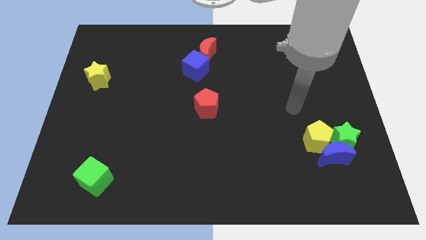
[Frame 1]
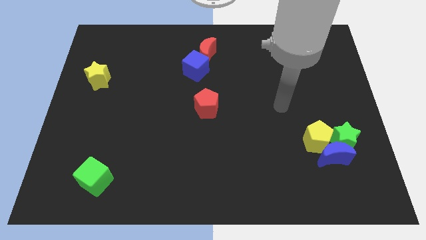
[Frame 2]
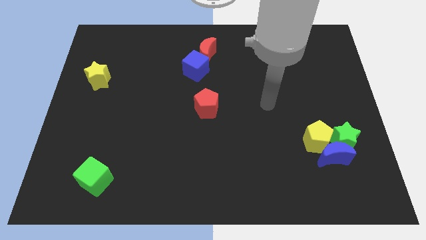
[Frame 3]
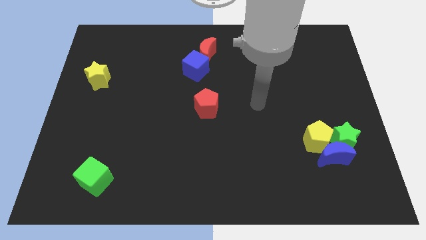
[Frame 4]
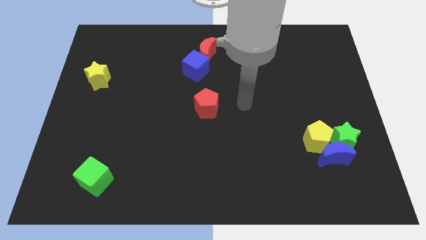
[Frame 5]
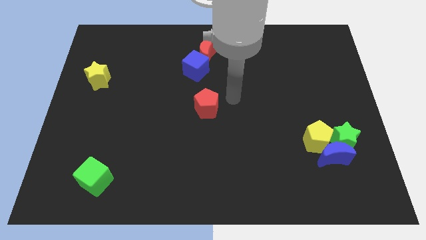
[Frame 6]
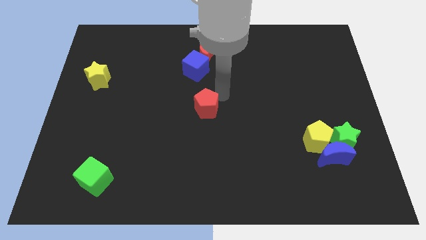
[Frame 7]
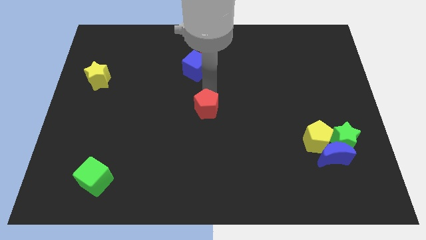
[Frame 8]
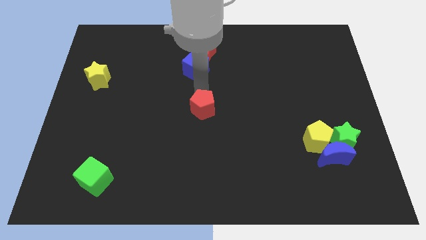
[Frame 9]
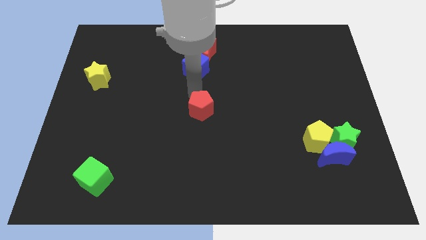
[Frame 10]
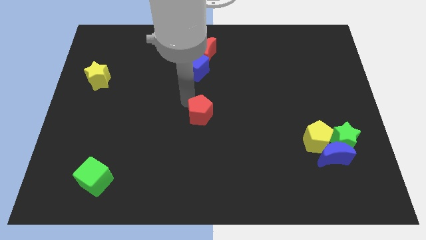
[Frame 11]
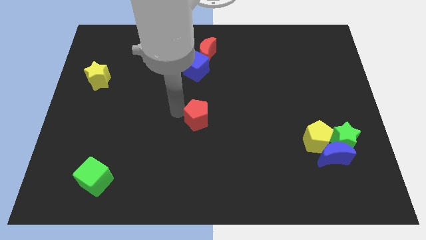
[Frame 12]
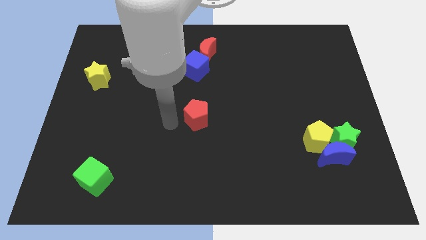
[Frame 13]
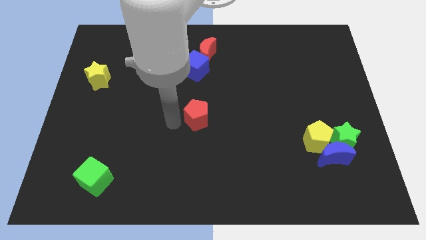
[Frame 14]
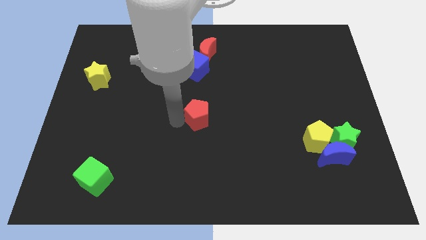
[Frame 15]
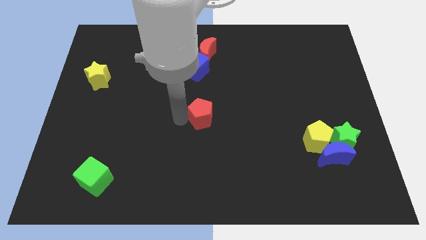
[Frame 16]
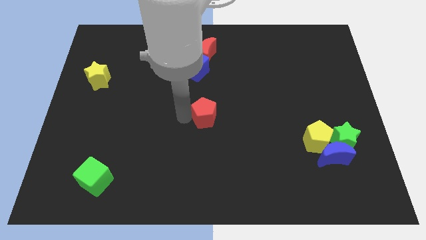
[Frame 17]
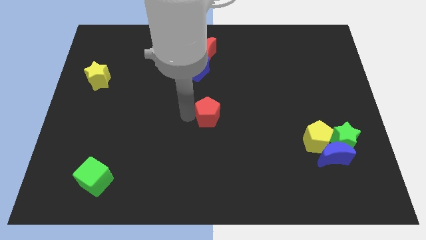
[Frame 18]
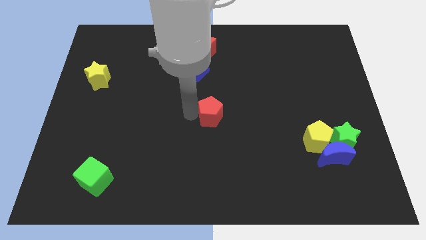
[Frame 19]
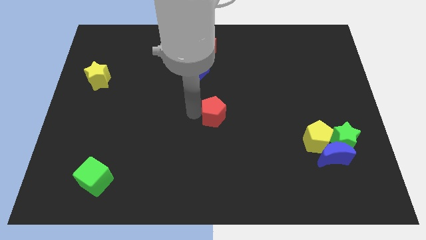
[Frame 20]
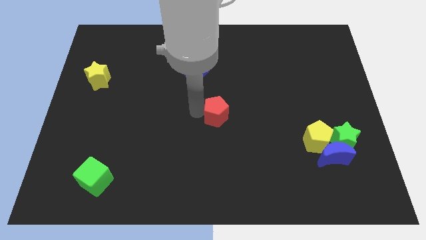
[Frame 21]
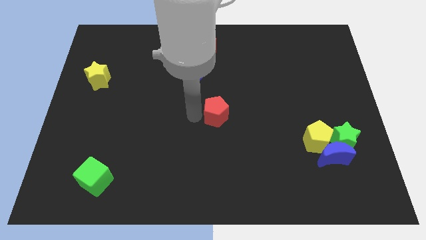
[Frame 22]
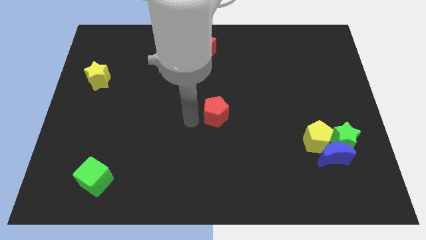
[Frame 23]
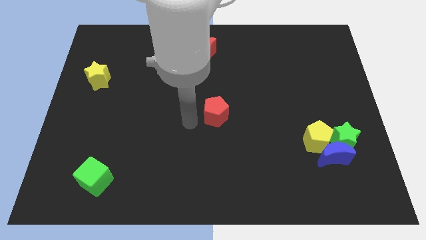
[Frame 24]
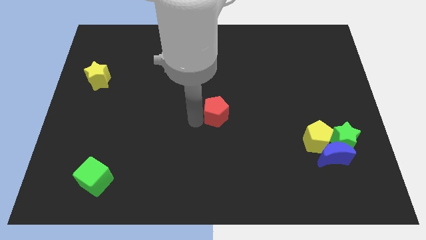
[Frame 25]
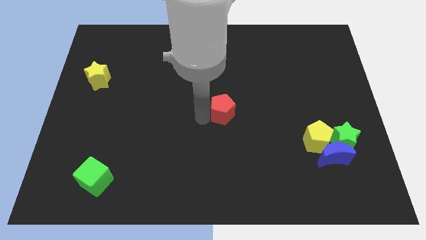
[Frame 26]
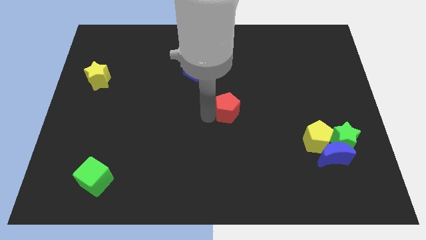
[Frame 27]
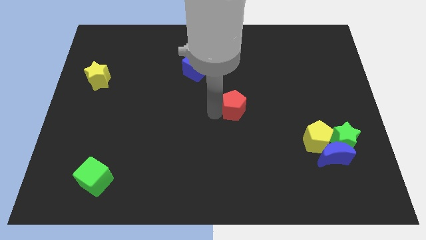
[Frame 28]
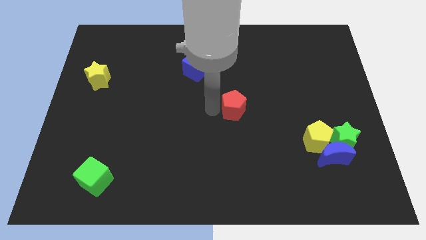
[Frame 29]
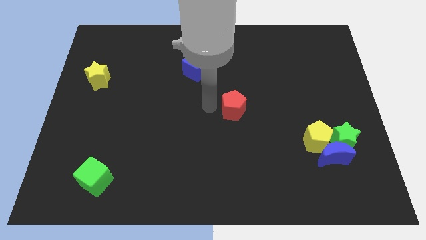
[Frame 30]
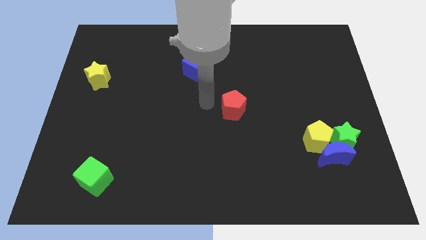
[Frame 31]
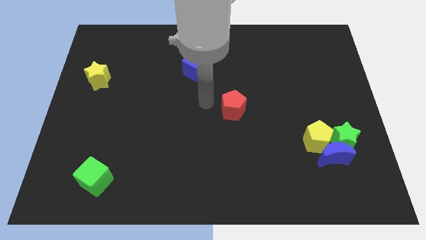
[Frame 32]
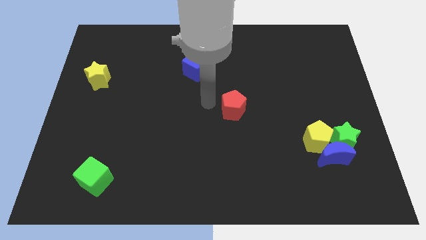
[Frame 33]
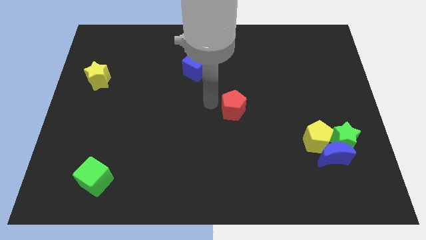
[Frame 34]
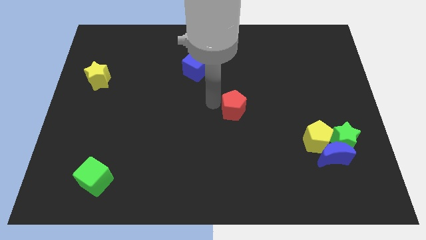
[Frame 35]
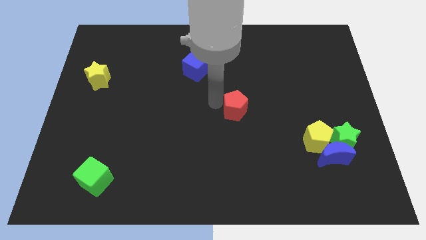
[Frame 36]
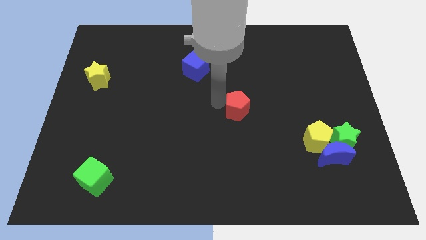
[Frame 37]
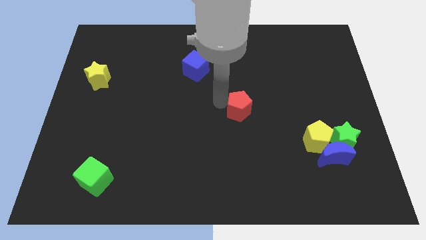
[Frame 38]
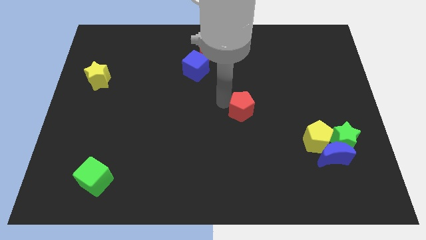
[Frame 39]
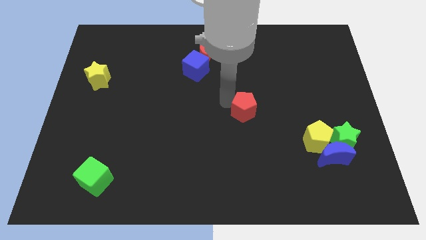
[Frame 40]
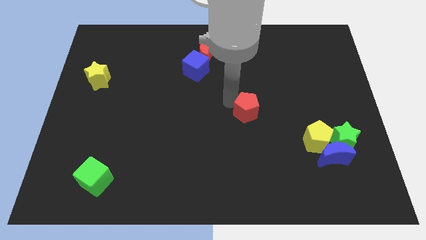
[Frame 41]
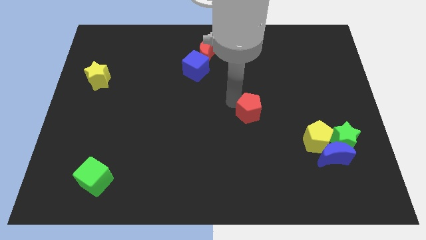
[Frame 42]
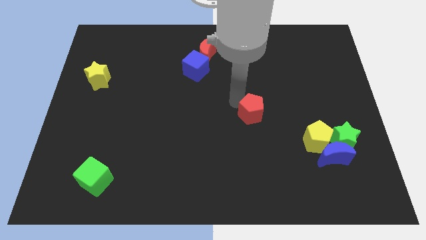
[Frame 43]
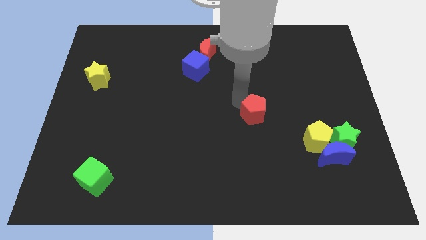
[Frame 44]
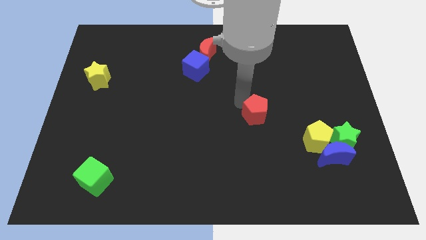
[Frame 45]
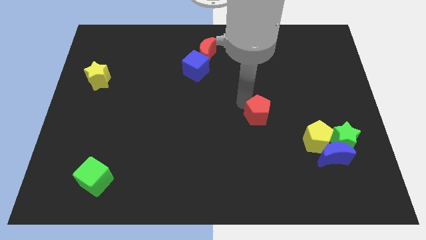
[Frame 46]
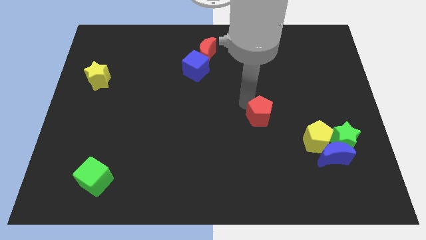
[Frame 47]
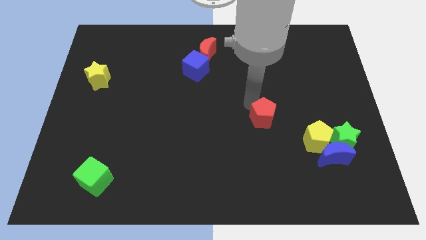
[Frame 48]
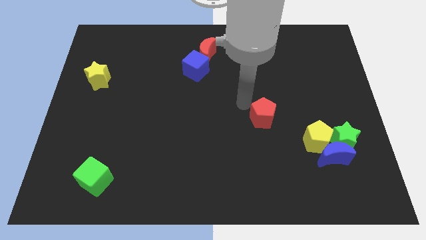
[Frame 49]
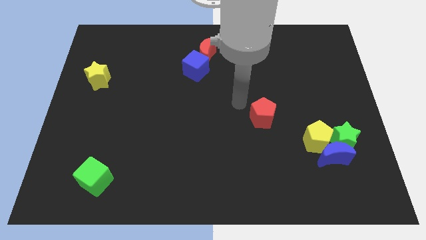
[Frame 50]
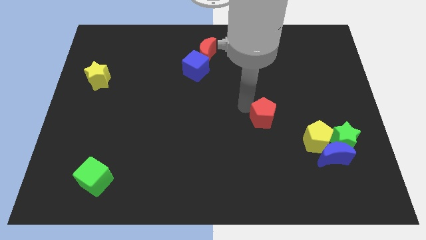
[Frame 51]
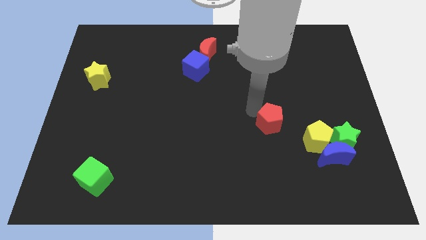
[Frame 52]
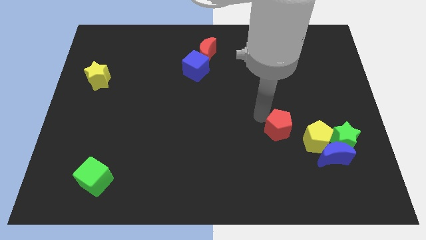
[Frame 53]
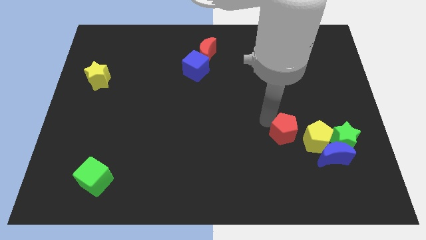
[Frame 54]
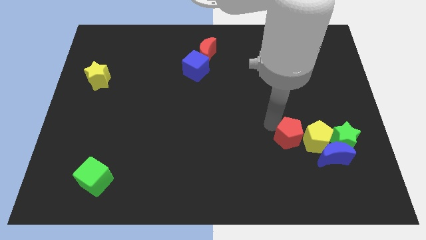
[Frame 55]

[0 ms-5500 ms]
slide the red pentagon close to the yellow pentagon

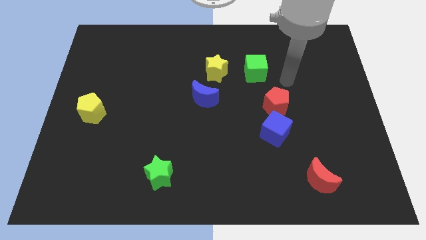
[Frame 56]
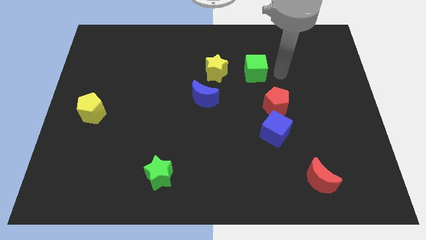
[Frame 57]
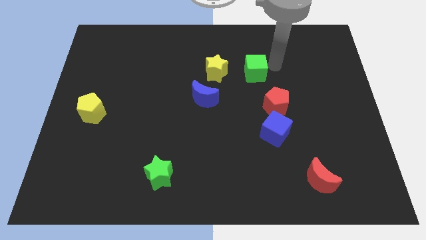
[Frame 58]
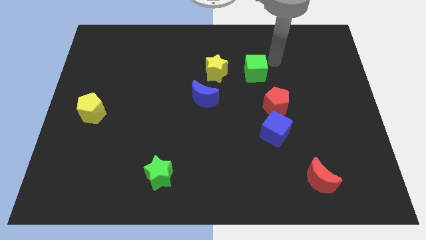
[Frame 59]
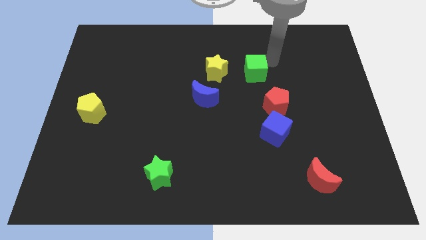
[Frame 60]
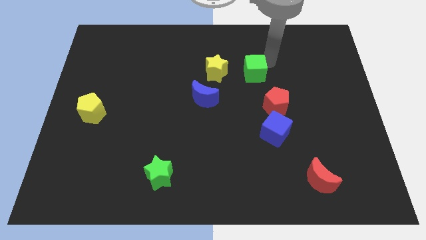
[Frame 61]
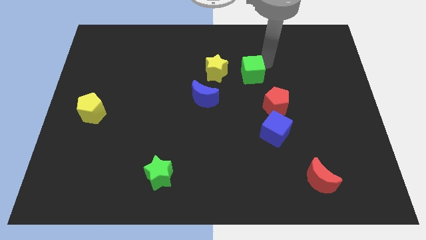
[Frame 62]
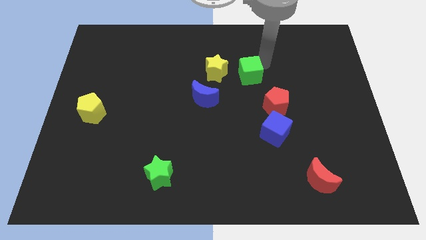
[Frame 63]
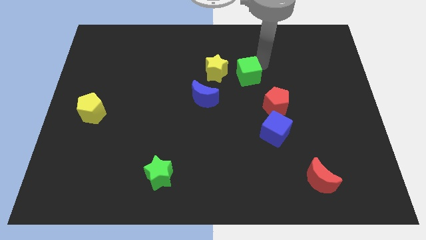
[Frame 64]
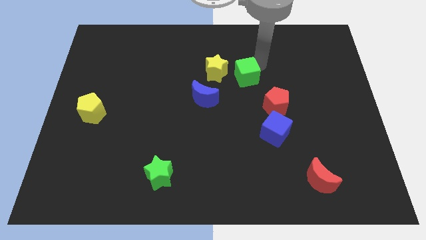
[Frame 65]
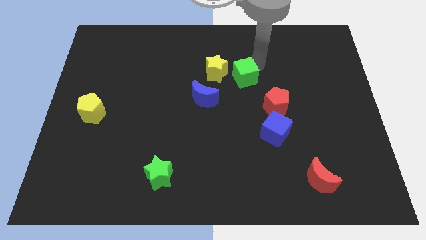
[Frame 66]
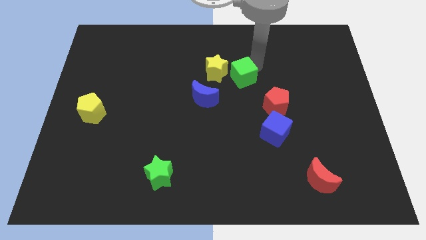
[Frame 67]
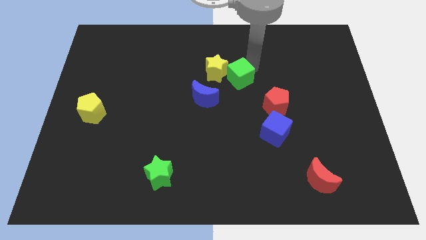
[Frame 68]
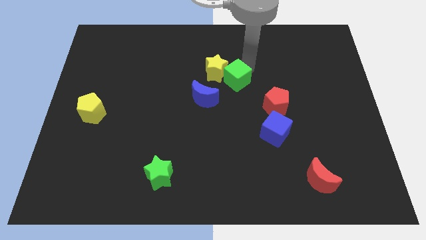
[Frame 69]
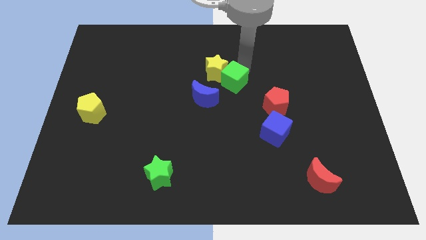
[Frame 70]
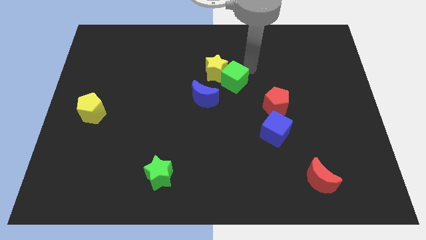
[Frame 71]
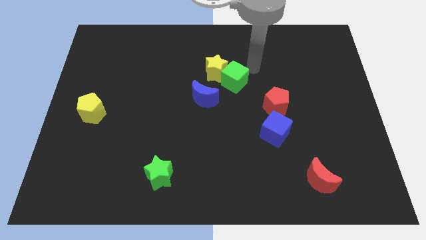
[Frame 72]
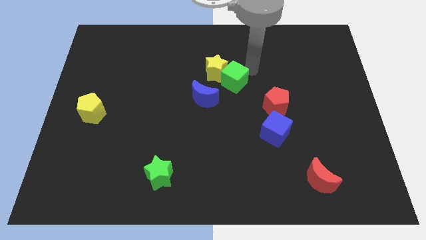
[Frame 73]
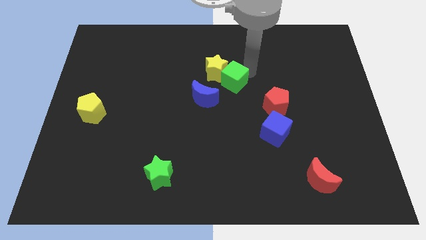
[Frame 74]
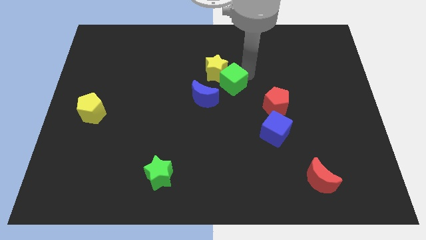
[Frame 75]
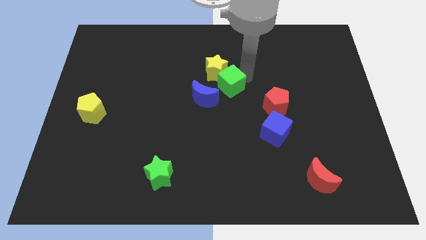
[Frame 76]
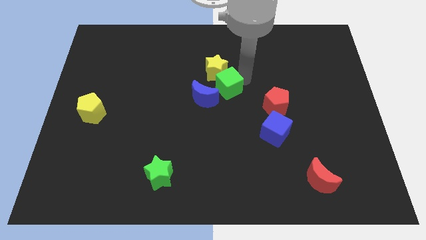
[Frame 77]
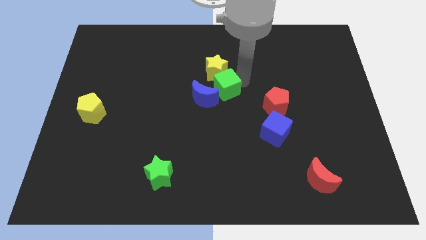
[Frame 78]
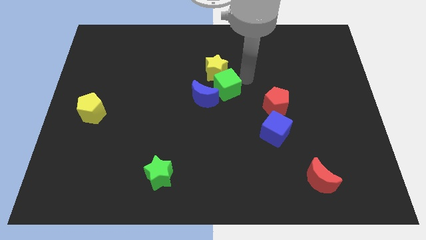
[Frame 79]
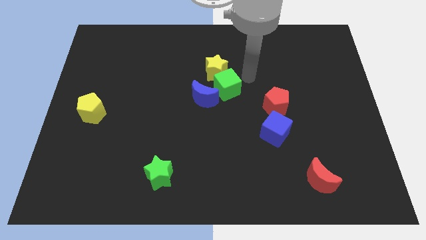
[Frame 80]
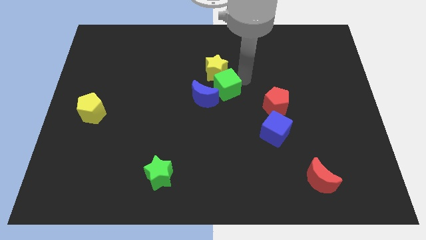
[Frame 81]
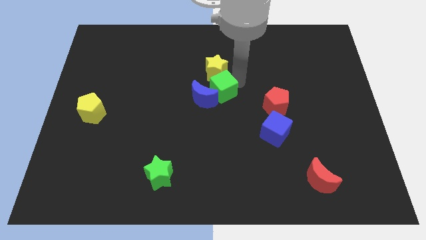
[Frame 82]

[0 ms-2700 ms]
move the green cube to the blue moon
